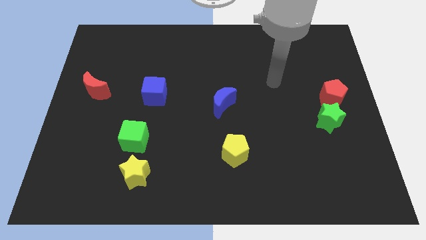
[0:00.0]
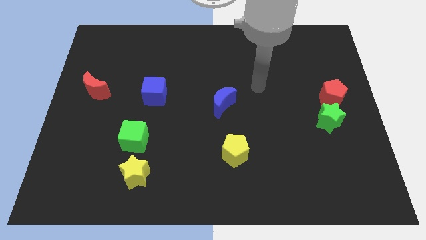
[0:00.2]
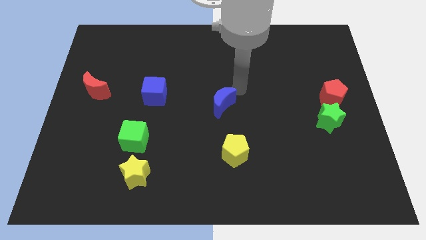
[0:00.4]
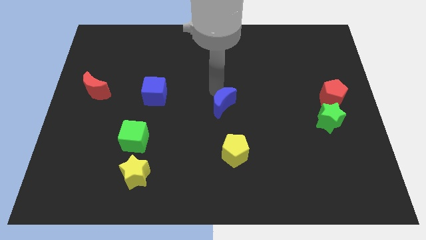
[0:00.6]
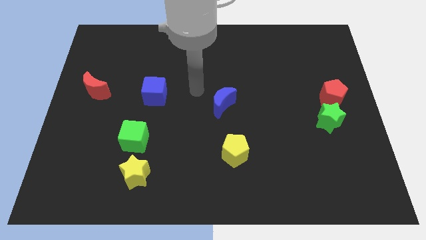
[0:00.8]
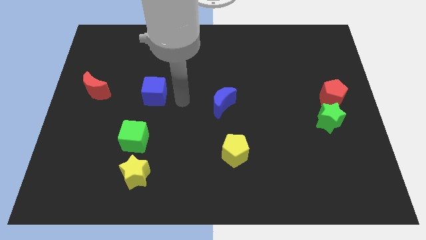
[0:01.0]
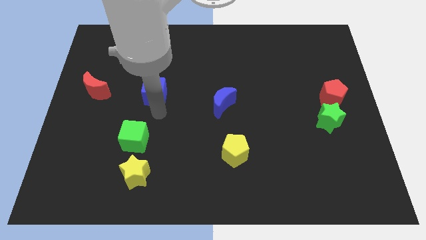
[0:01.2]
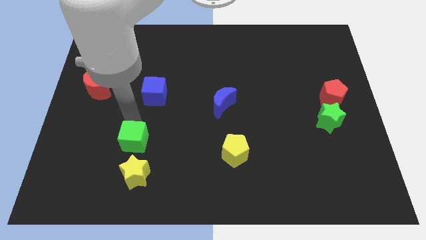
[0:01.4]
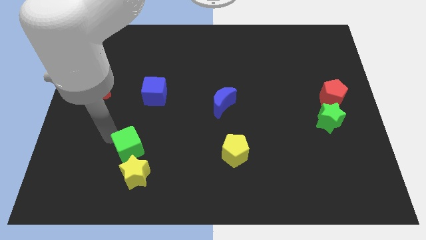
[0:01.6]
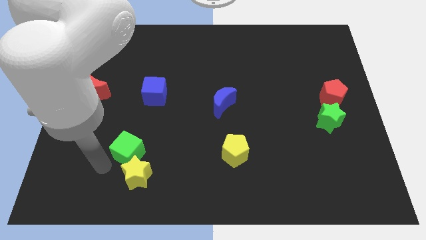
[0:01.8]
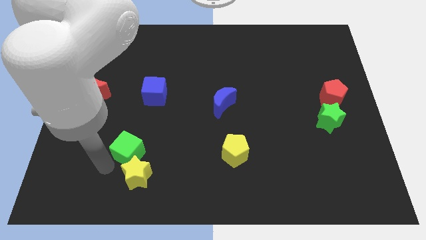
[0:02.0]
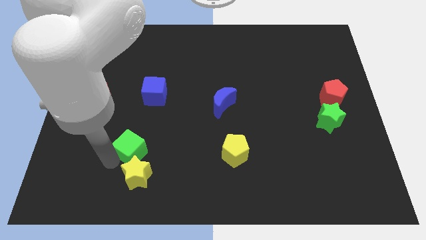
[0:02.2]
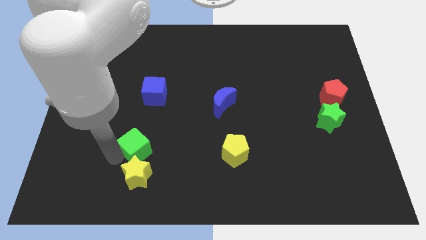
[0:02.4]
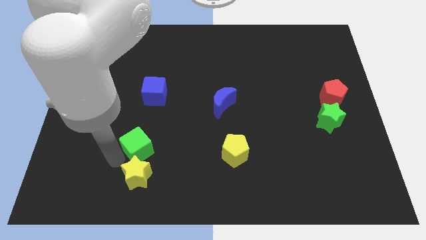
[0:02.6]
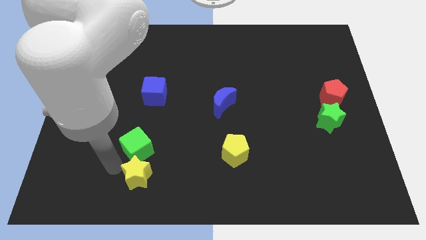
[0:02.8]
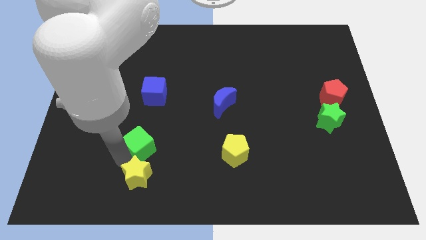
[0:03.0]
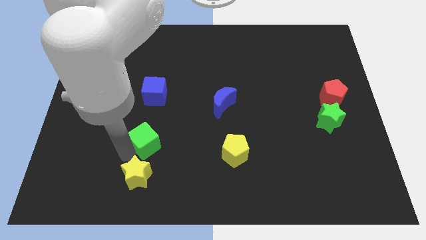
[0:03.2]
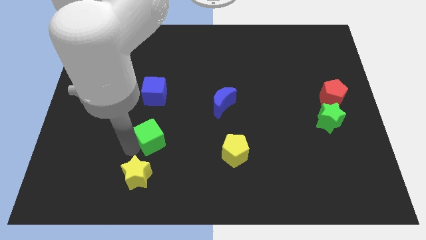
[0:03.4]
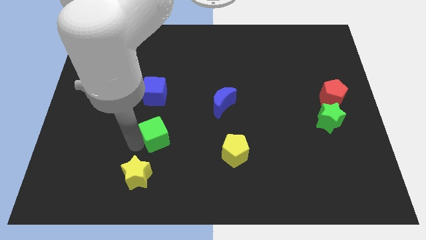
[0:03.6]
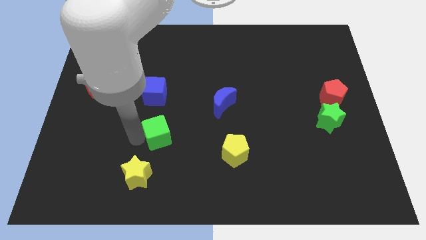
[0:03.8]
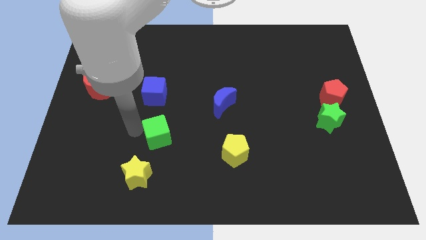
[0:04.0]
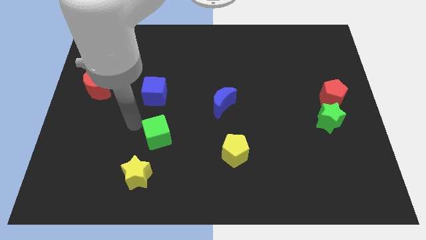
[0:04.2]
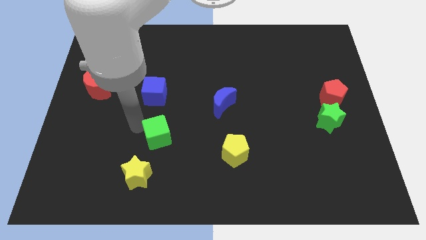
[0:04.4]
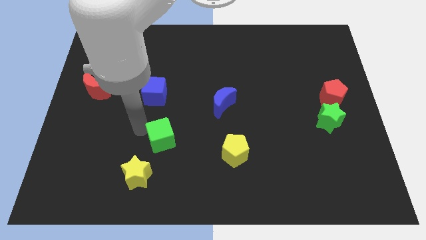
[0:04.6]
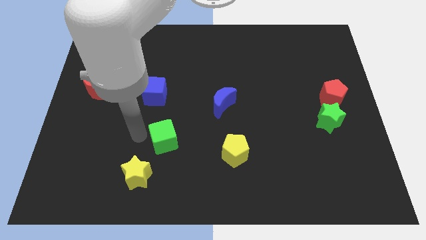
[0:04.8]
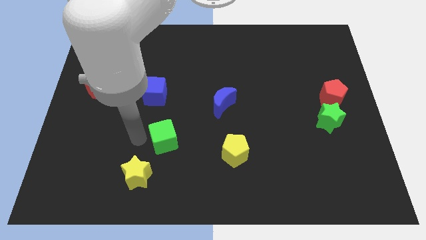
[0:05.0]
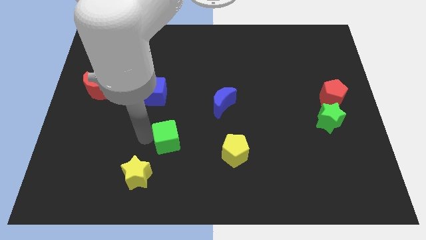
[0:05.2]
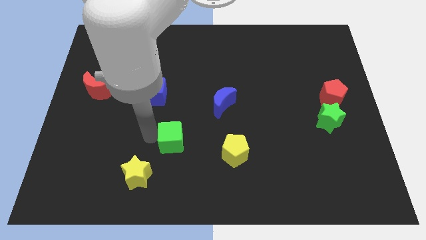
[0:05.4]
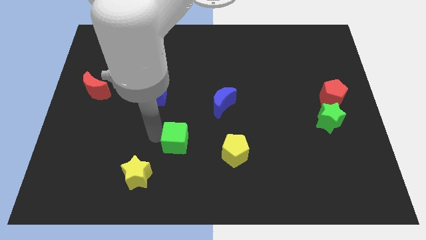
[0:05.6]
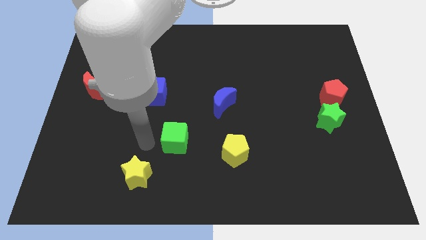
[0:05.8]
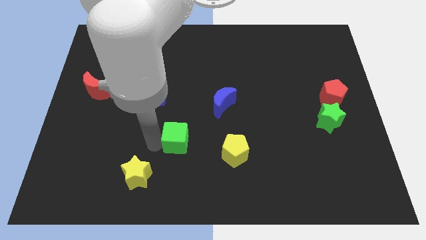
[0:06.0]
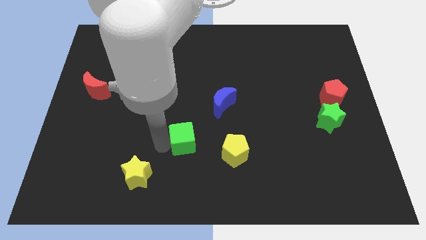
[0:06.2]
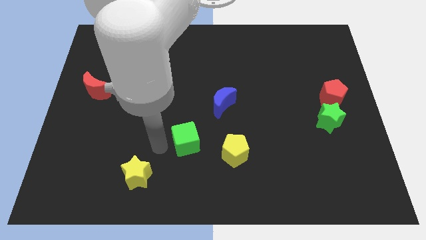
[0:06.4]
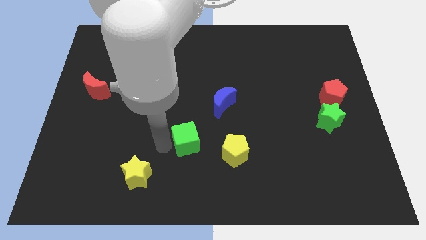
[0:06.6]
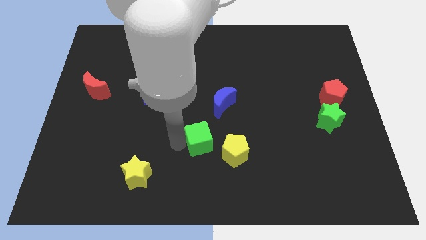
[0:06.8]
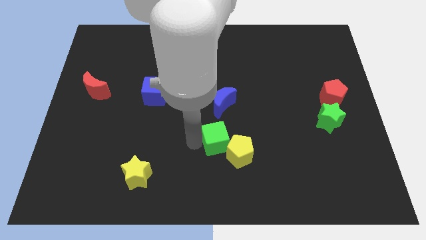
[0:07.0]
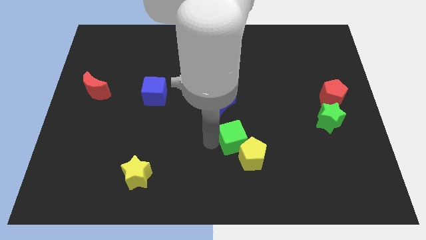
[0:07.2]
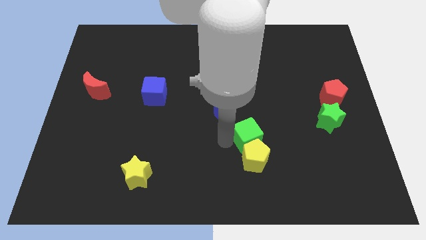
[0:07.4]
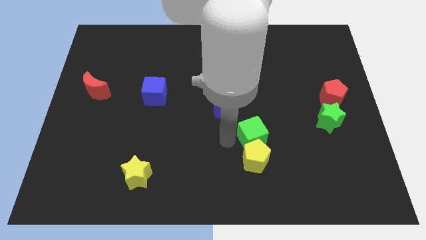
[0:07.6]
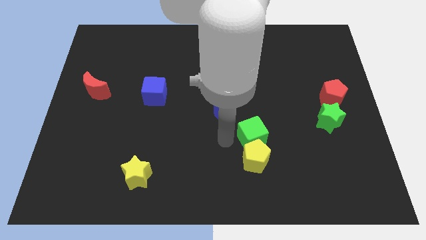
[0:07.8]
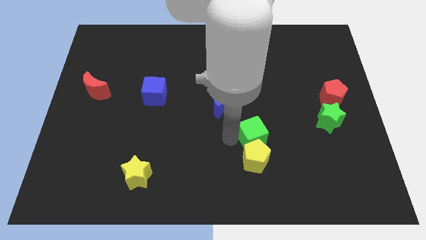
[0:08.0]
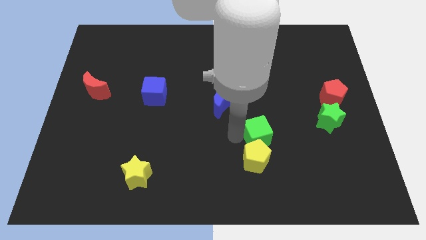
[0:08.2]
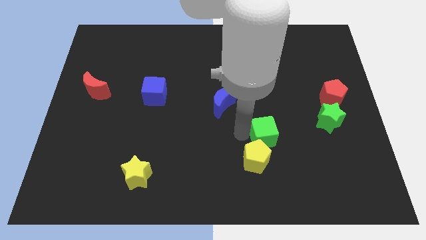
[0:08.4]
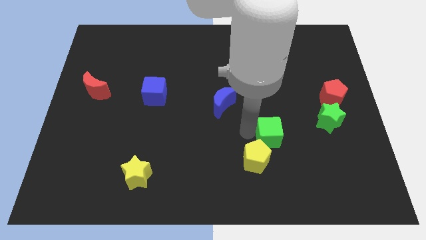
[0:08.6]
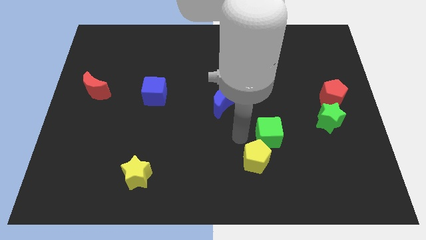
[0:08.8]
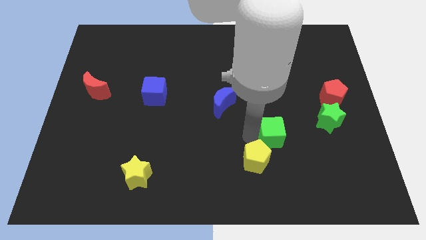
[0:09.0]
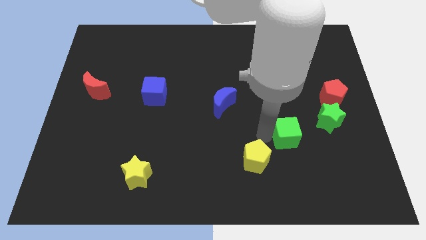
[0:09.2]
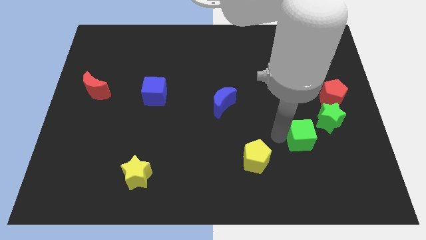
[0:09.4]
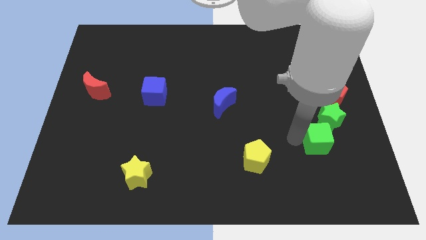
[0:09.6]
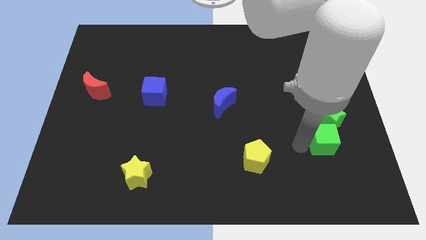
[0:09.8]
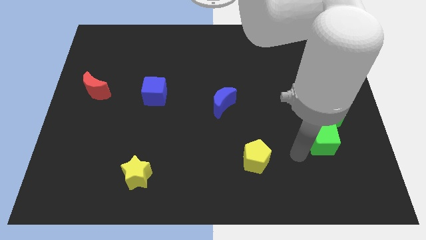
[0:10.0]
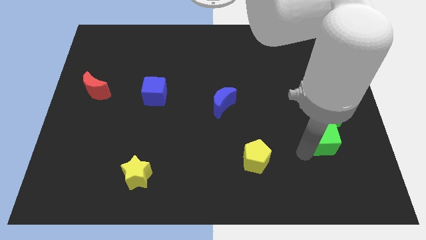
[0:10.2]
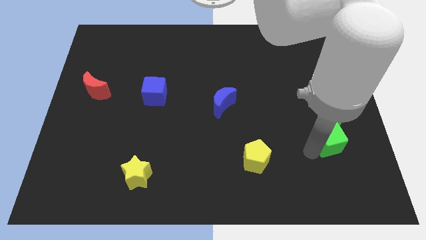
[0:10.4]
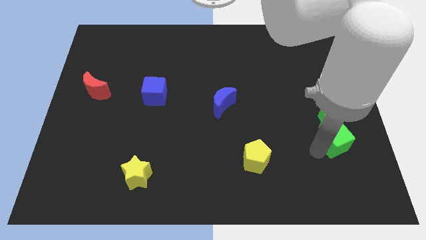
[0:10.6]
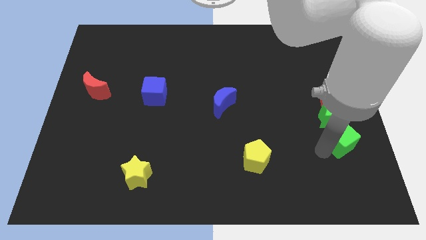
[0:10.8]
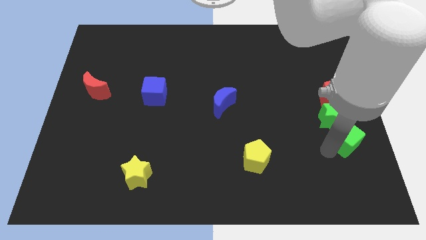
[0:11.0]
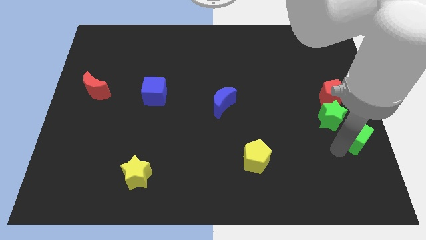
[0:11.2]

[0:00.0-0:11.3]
move the green cube to the right side of the board
